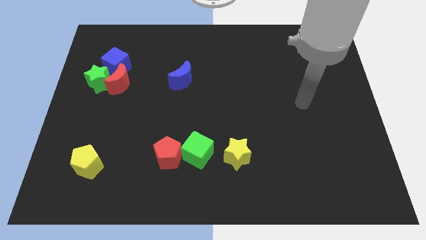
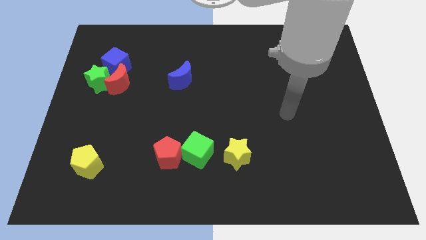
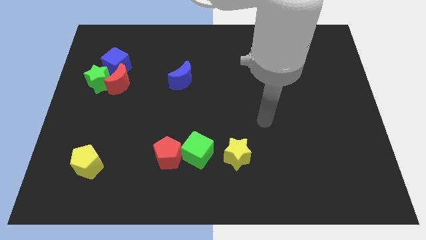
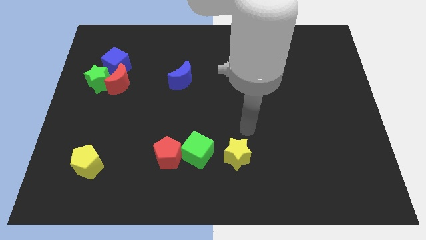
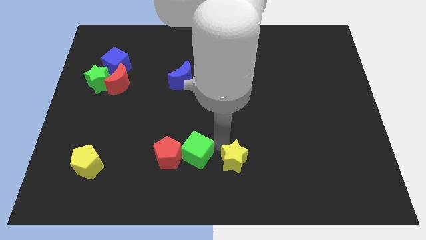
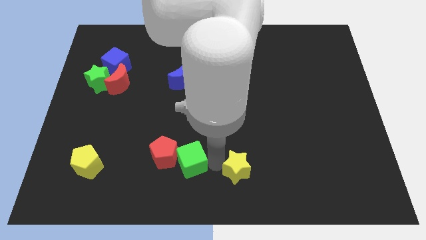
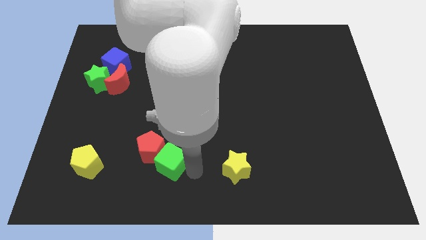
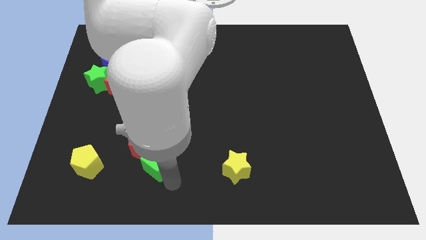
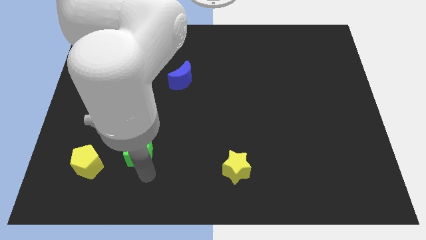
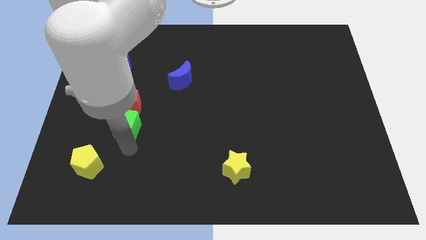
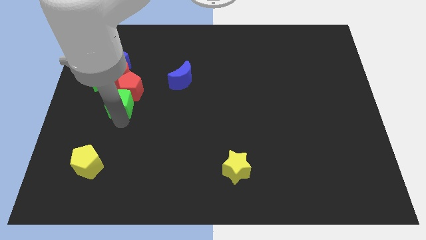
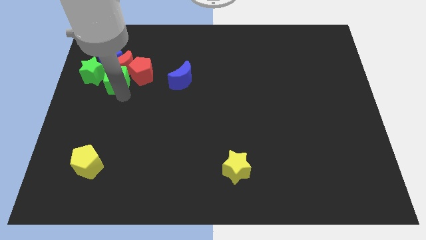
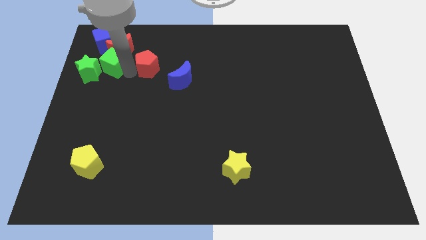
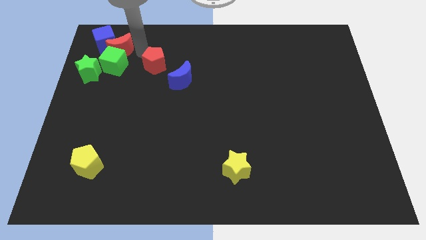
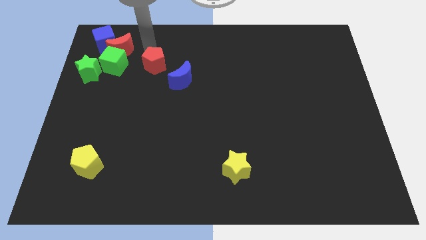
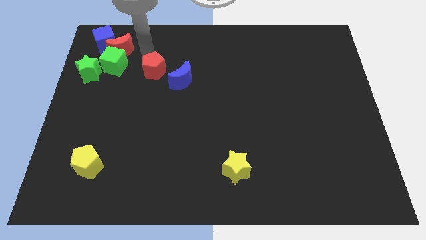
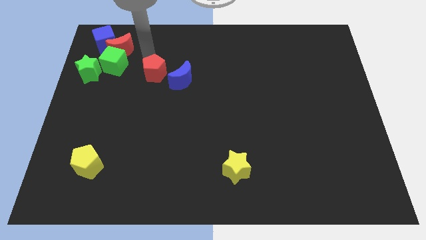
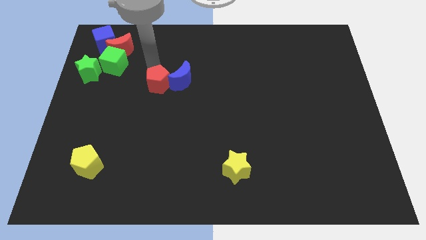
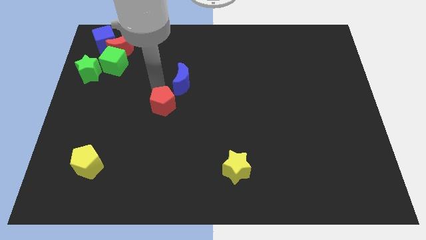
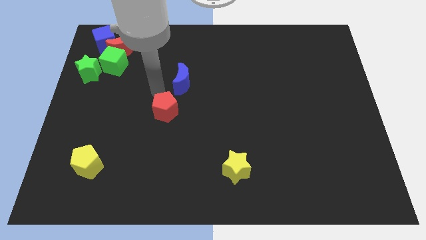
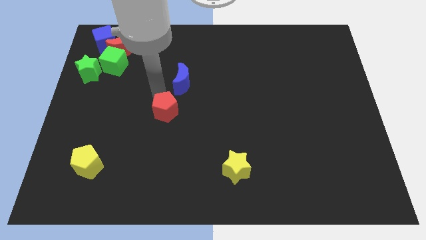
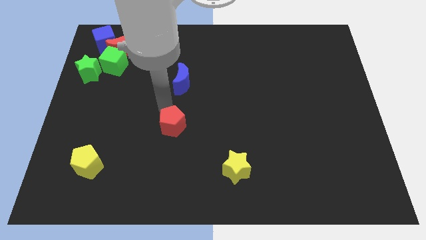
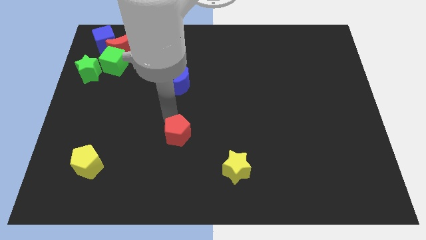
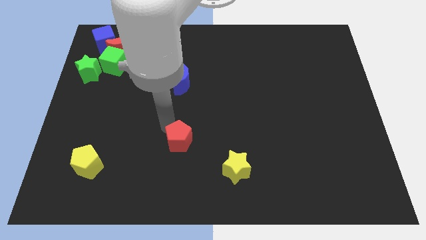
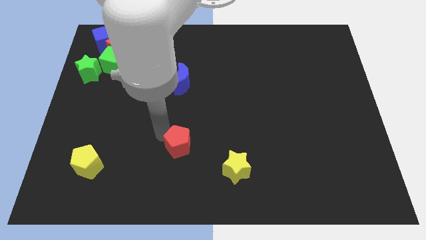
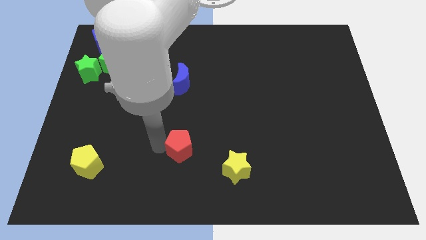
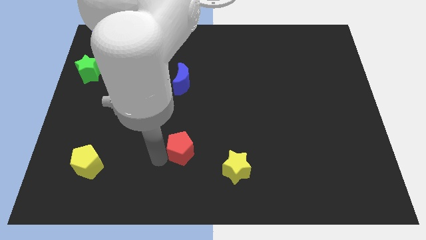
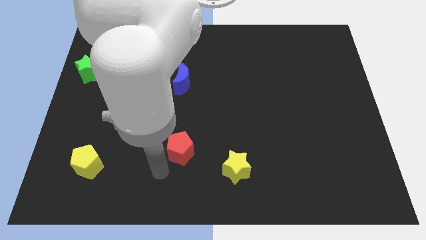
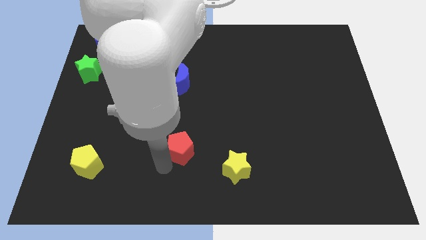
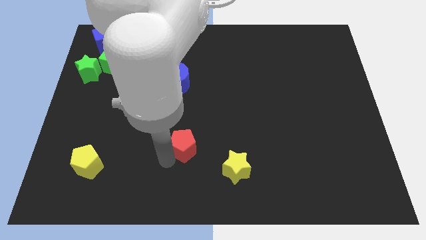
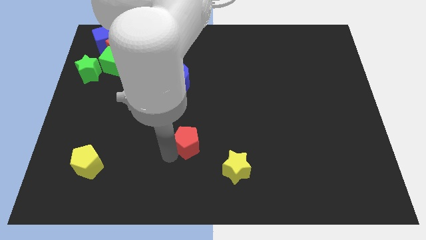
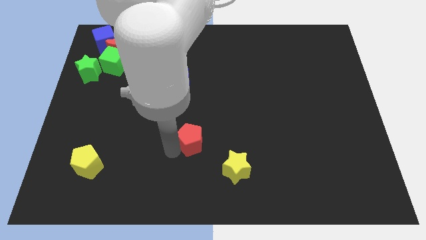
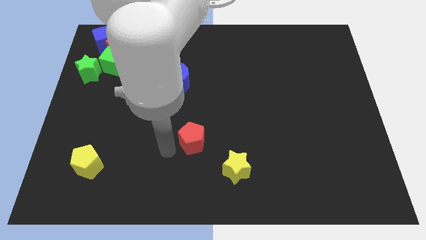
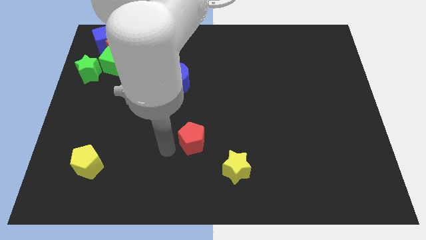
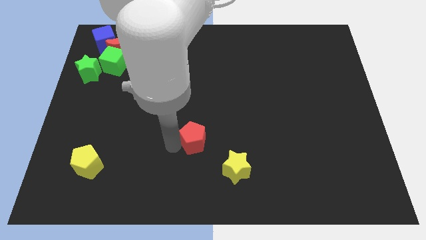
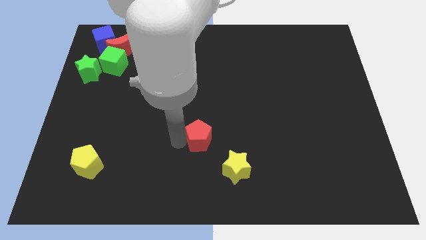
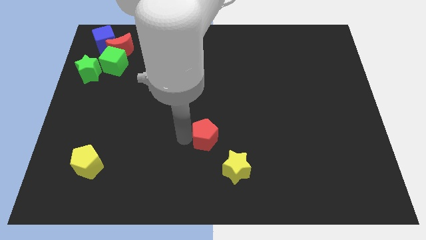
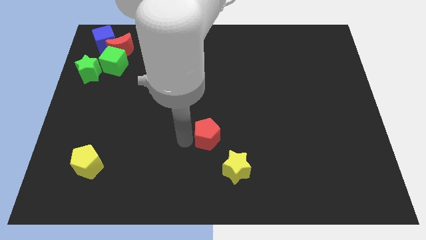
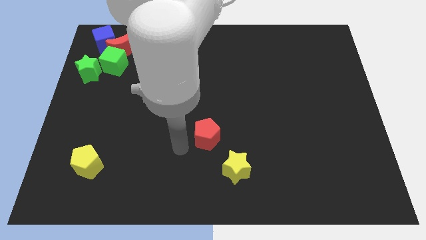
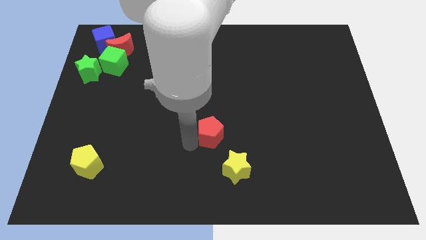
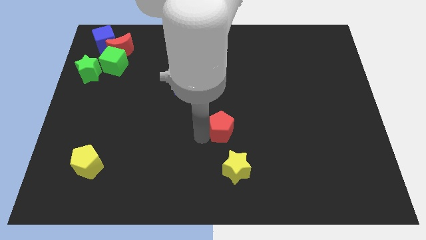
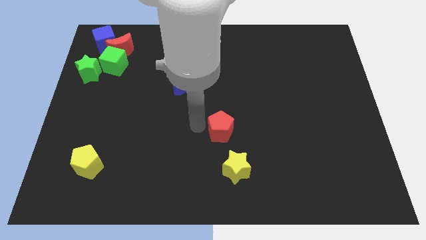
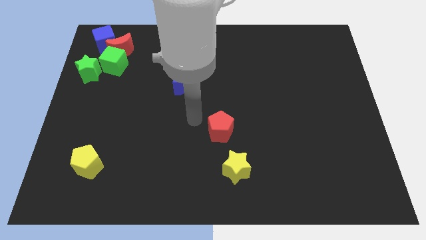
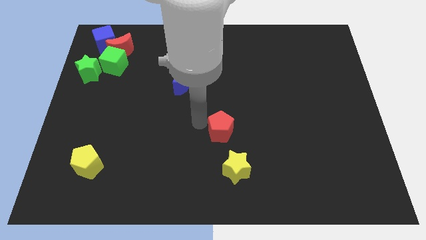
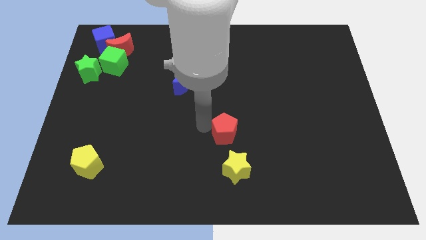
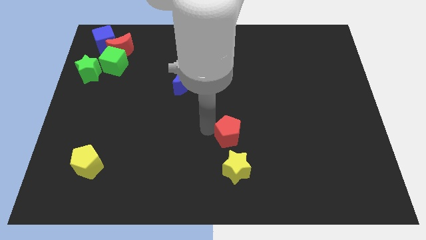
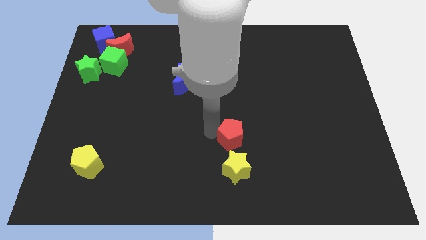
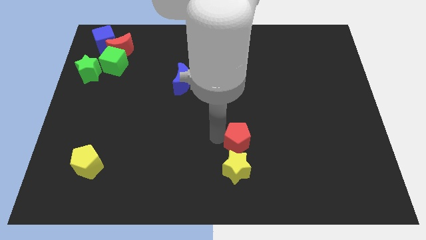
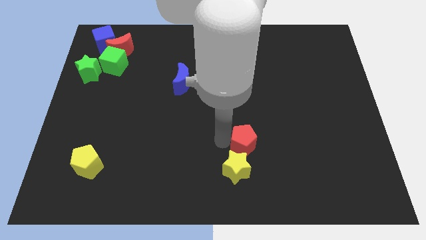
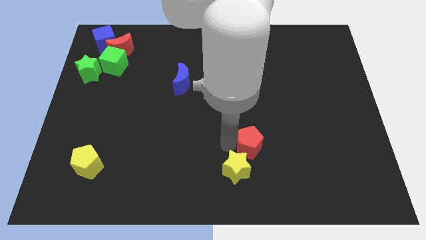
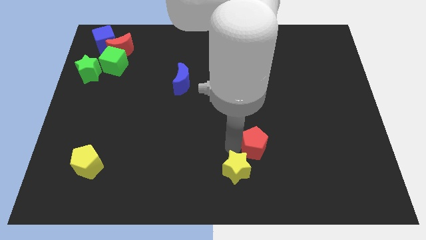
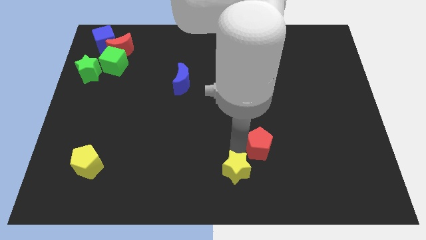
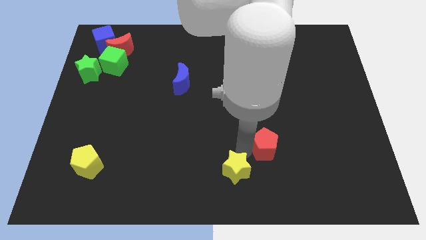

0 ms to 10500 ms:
push the red pentagon to the right

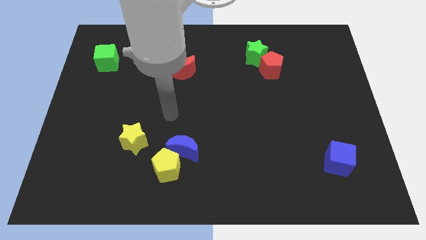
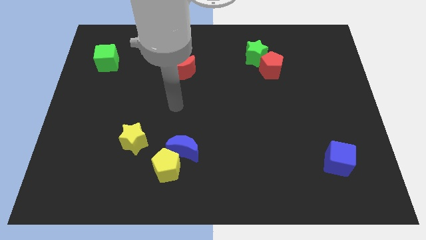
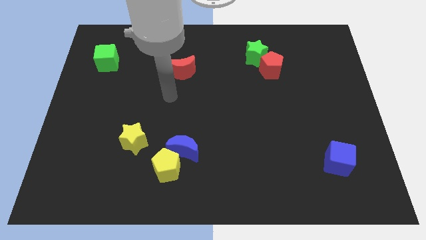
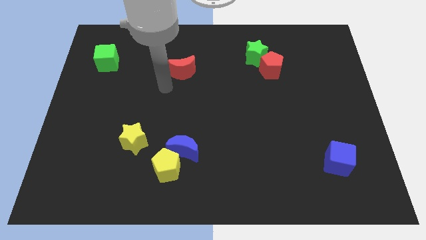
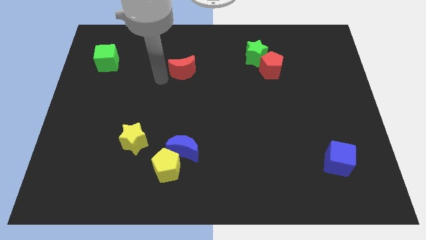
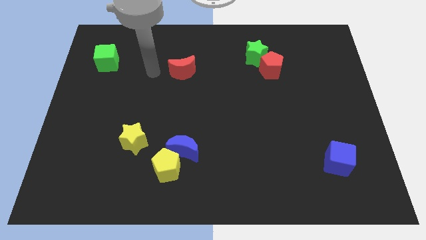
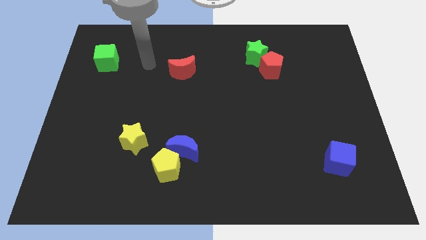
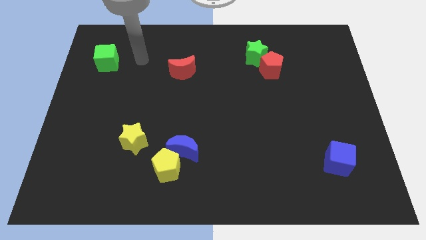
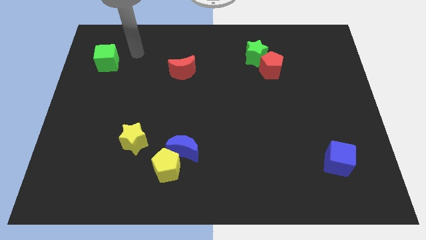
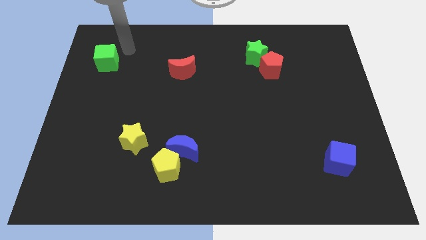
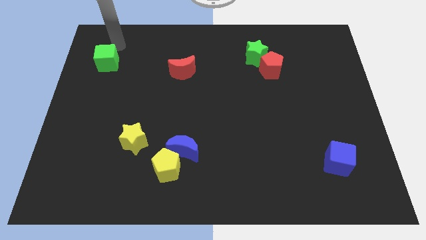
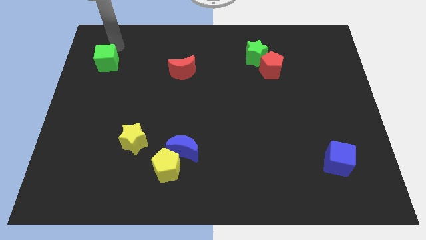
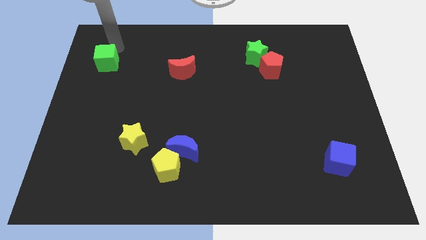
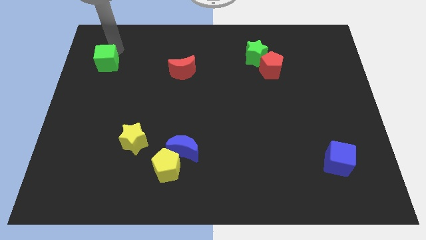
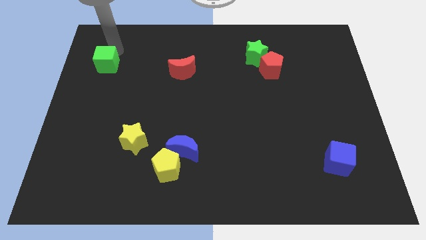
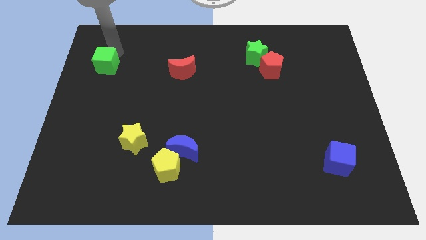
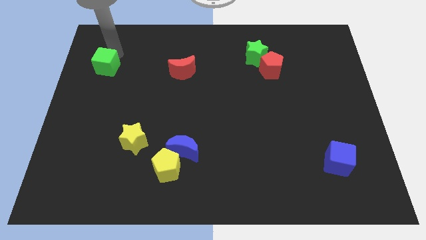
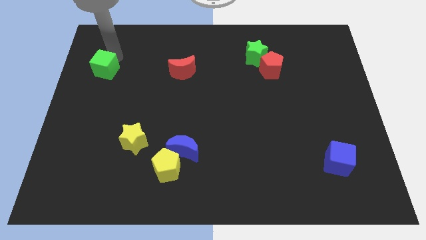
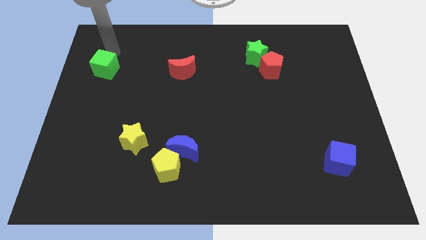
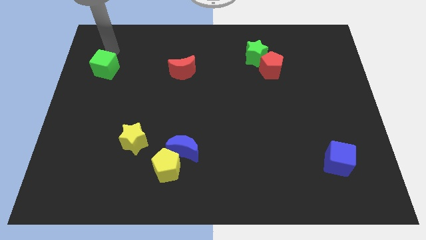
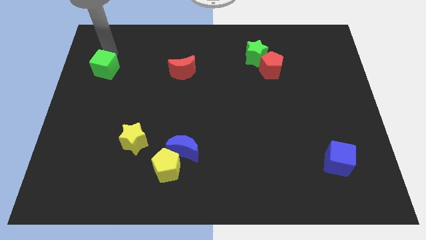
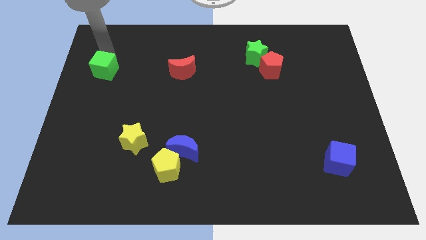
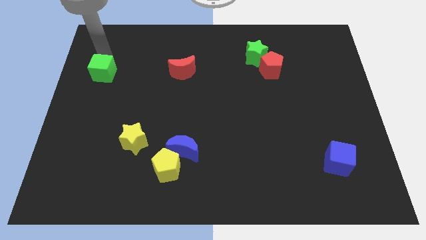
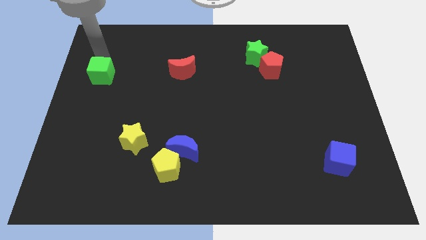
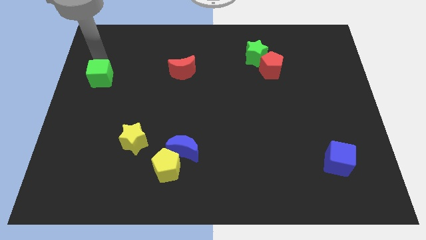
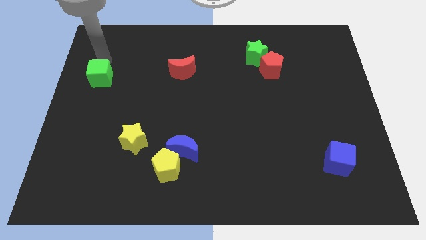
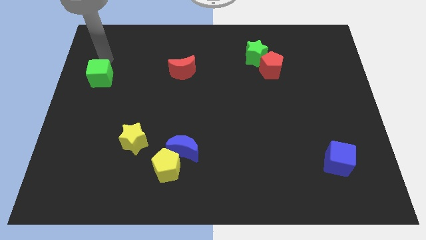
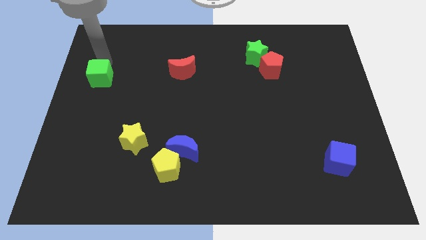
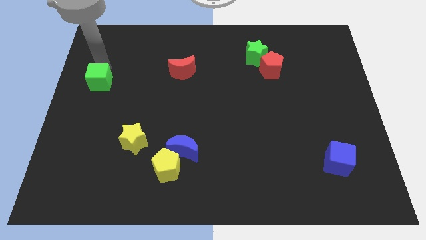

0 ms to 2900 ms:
move the green cube a bit downwards
